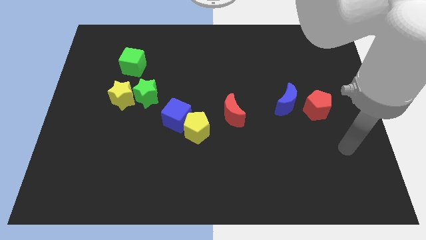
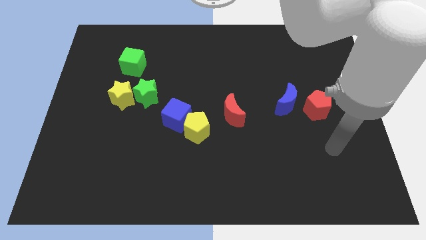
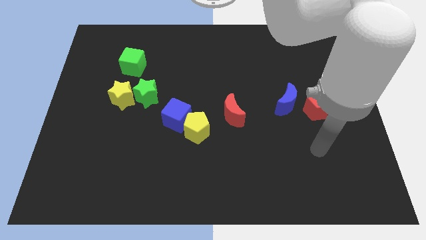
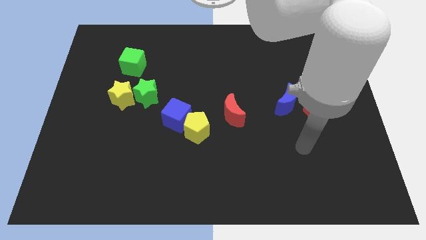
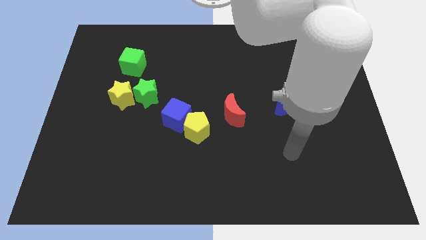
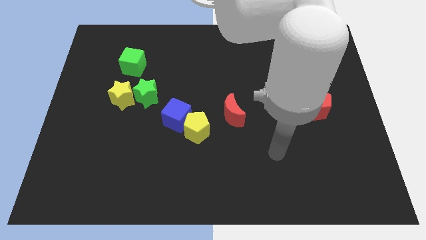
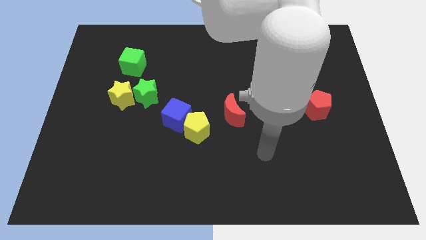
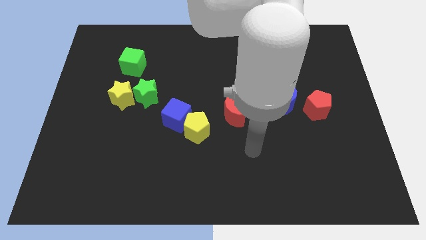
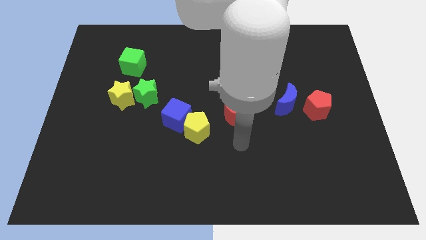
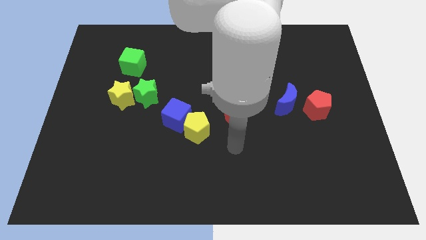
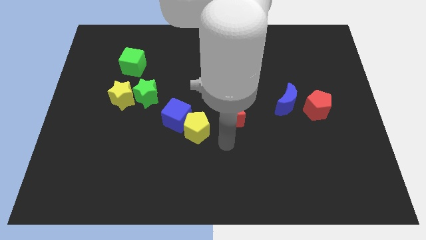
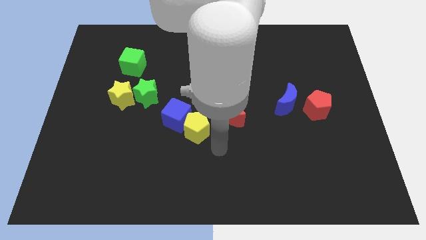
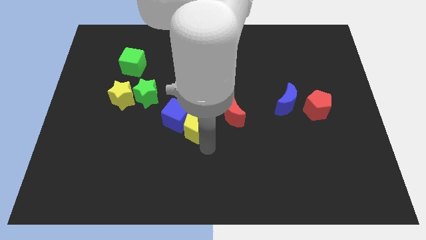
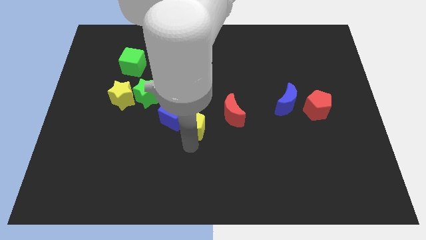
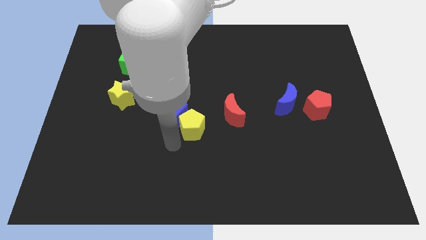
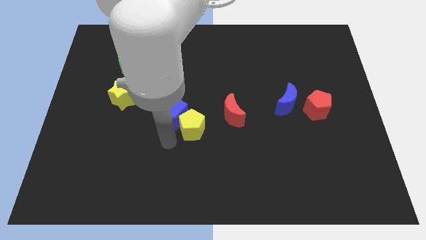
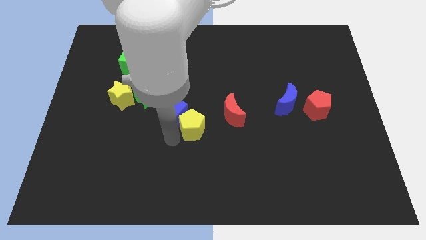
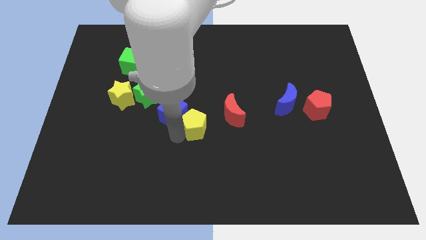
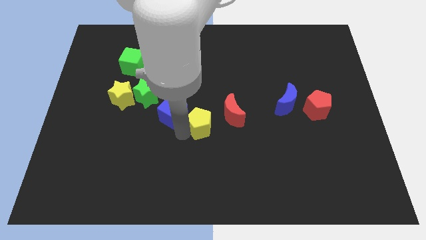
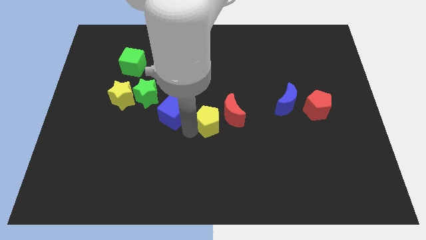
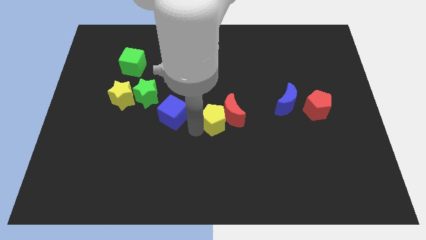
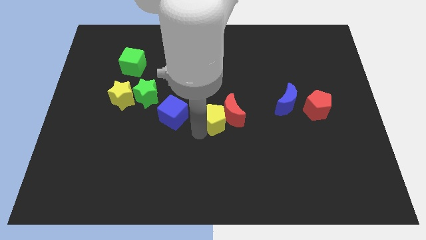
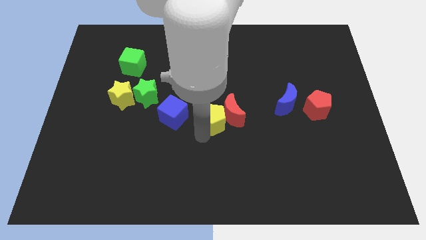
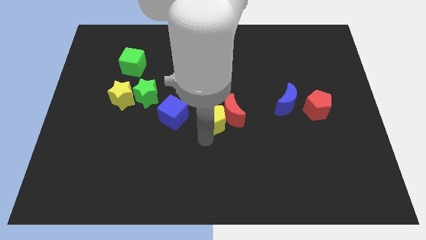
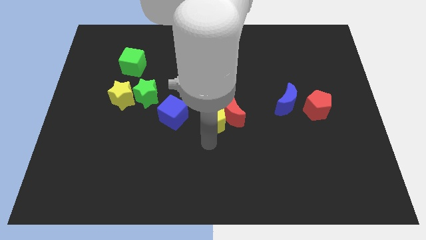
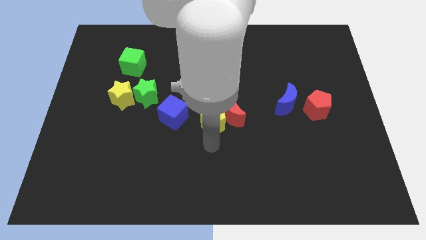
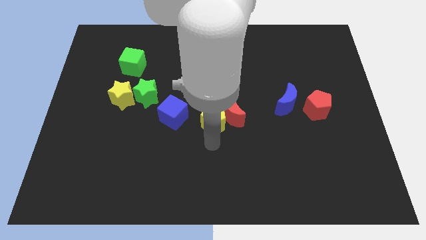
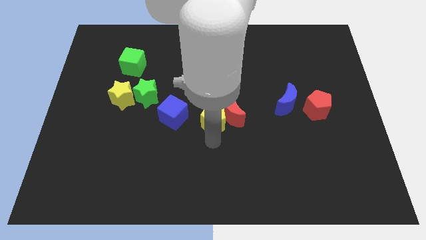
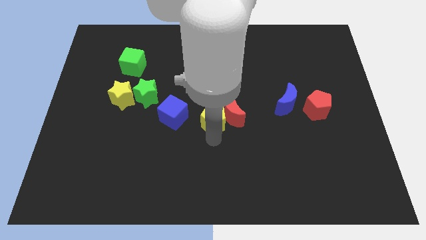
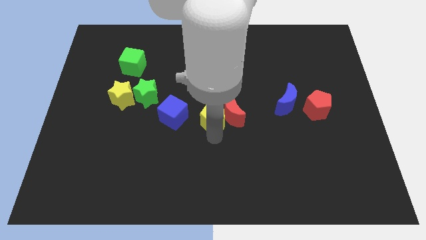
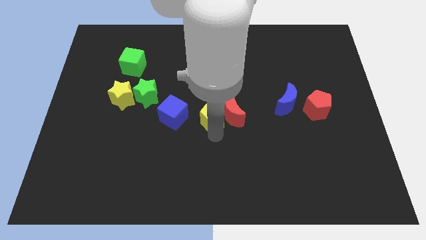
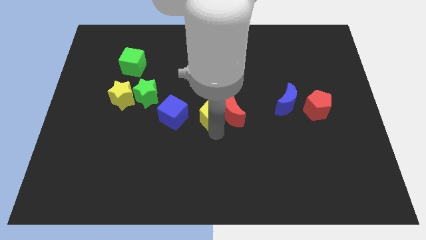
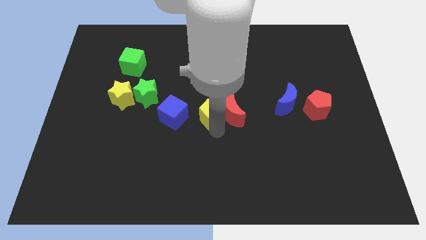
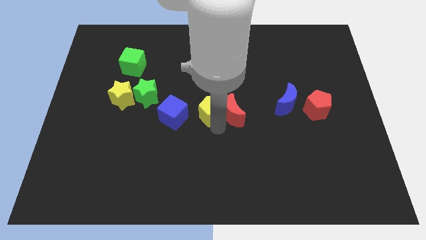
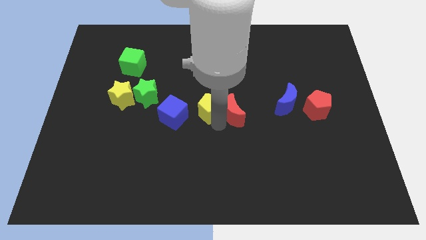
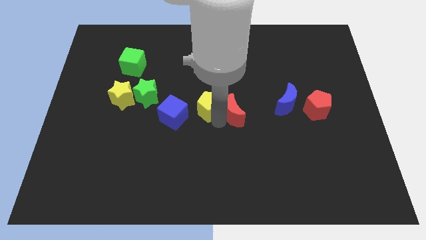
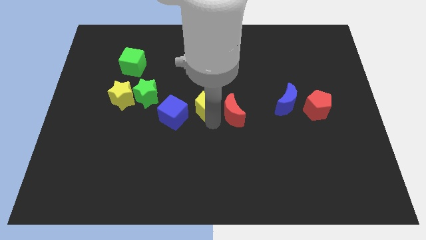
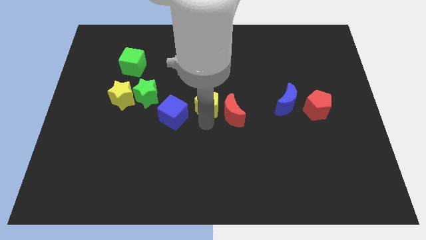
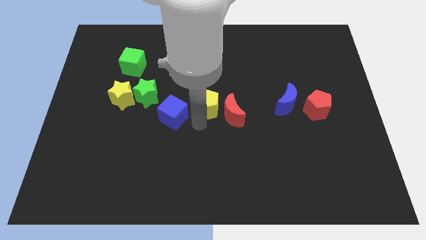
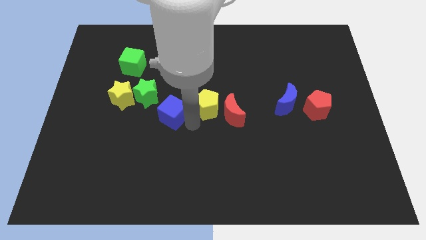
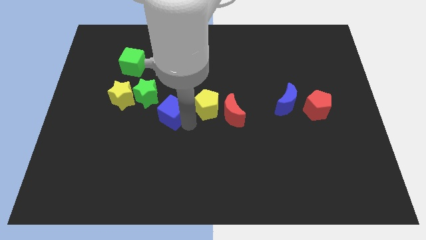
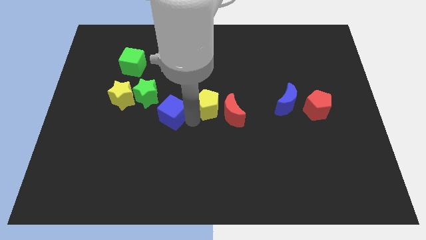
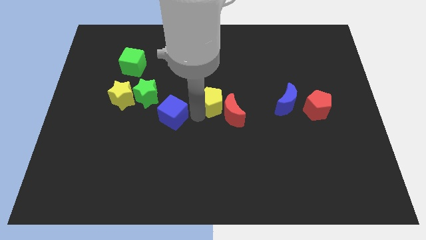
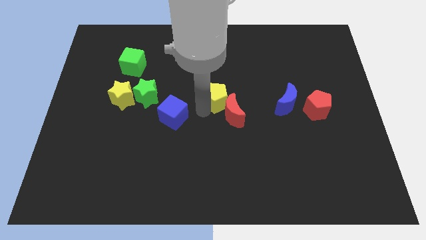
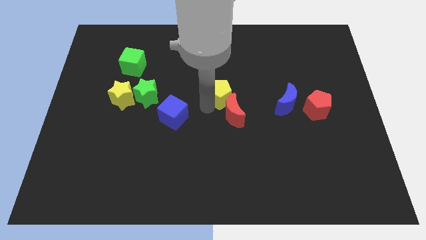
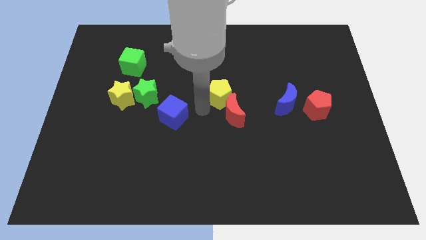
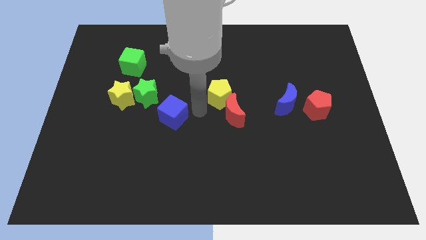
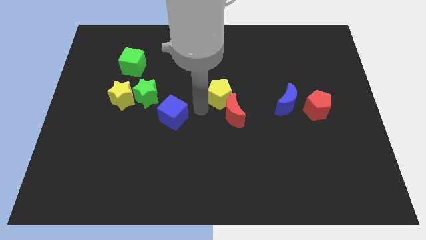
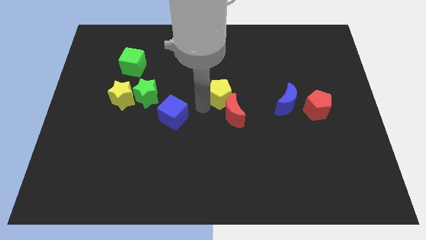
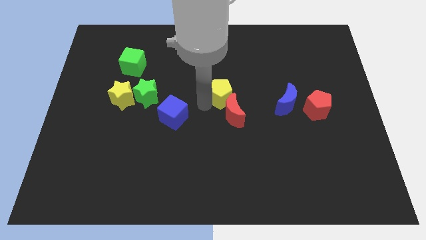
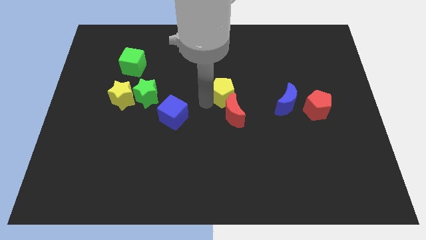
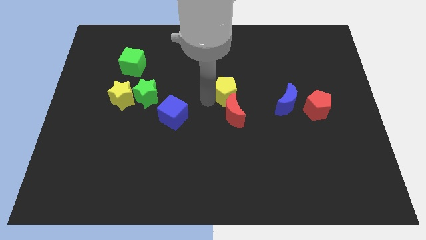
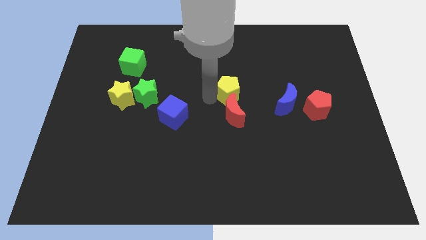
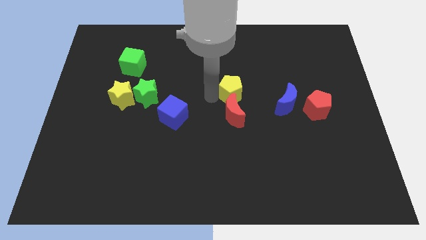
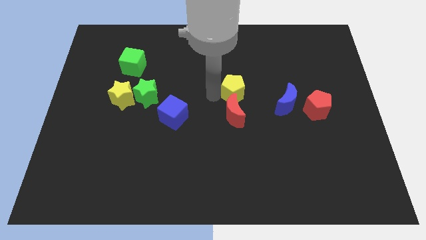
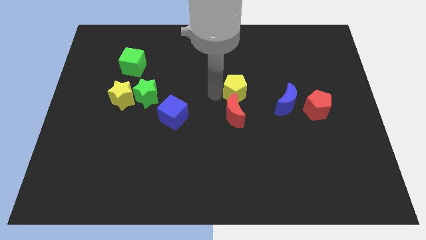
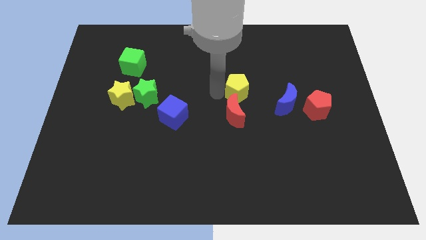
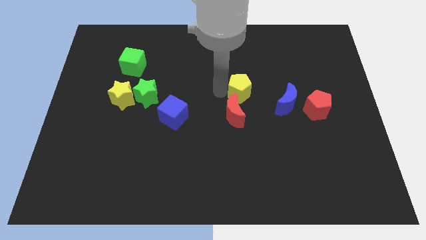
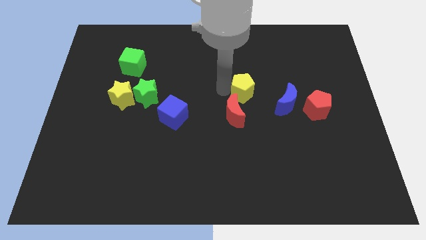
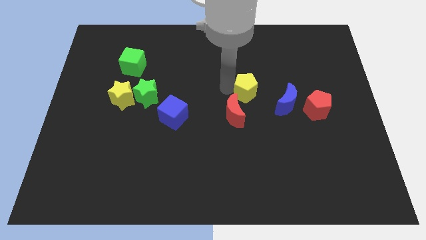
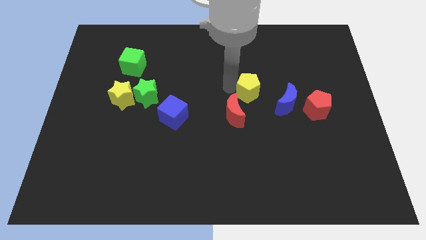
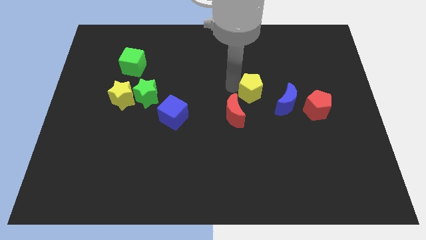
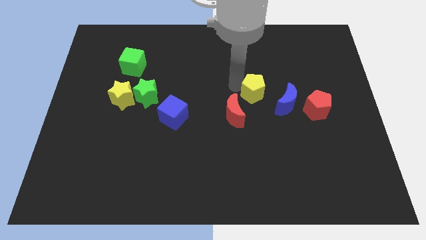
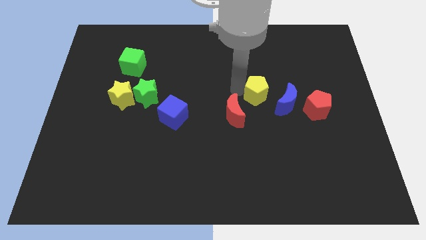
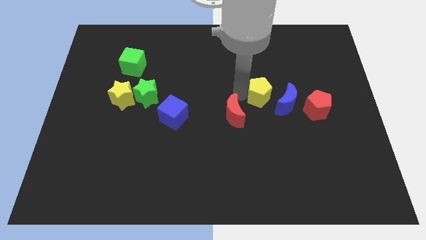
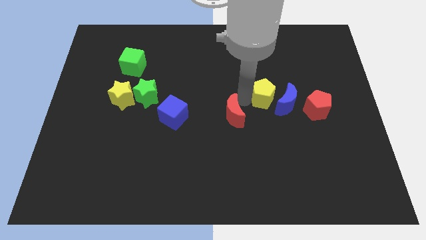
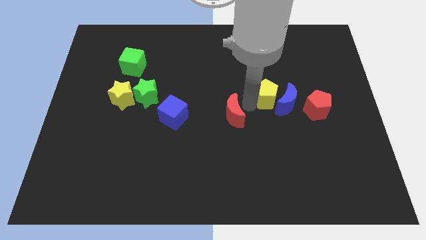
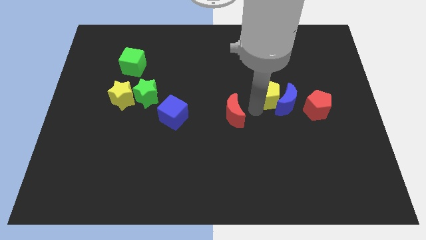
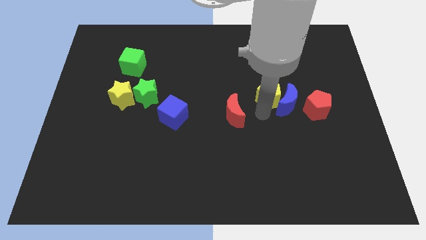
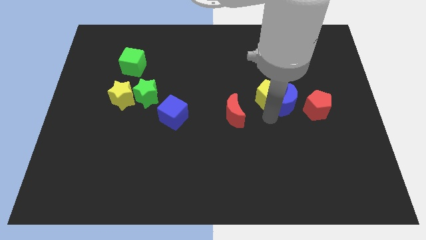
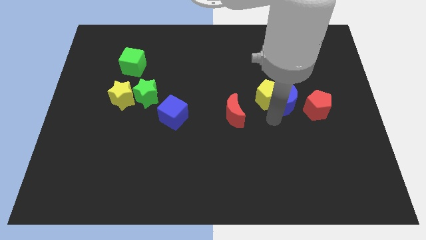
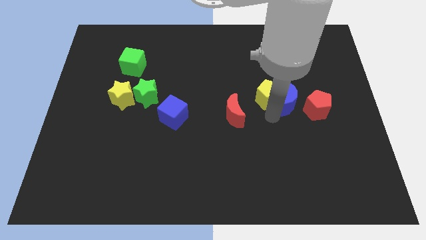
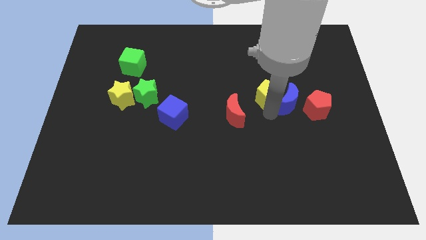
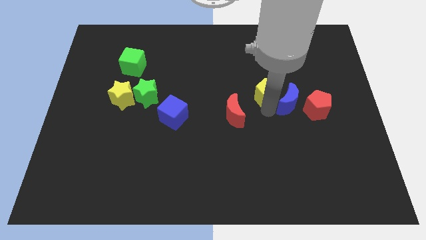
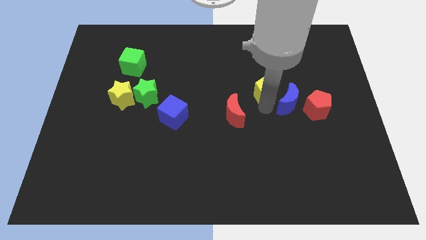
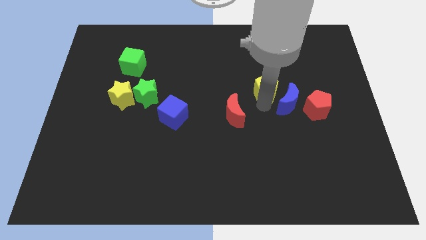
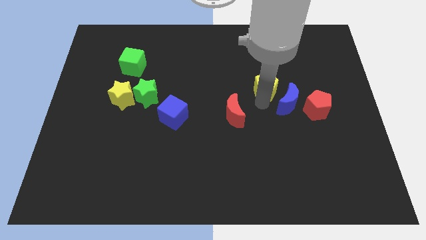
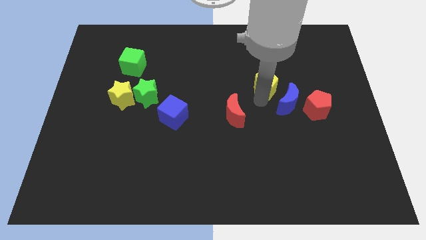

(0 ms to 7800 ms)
move the yellow pentagon upwards and right diagonally

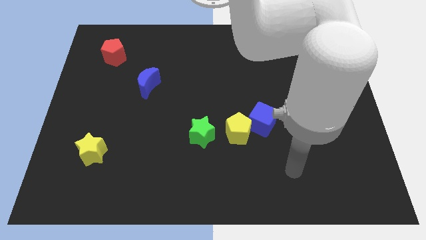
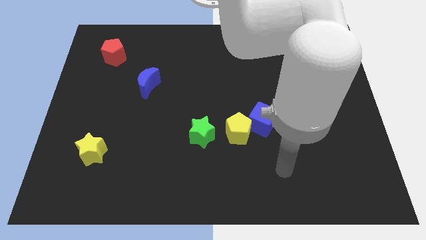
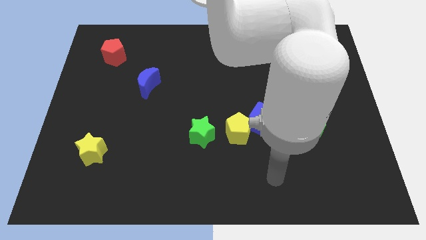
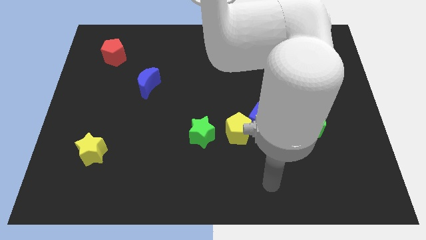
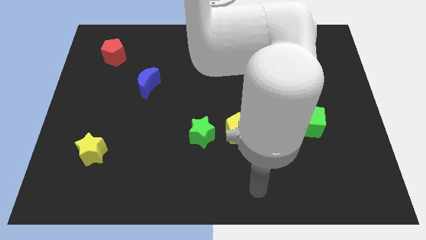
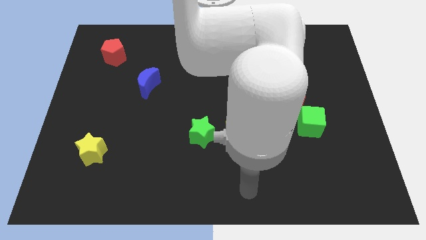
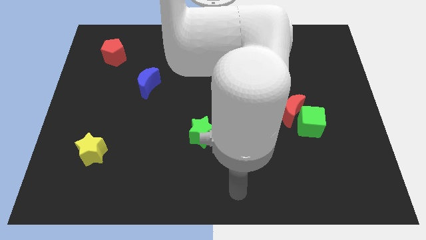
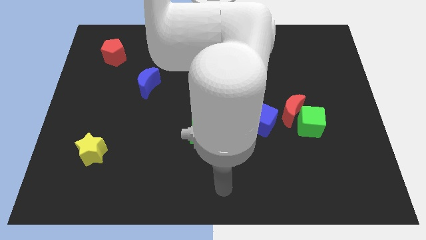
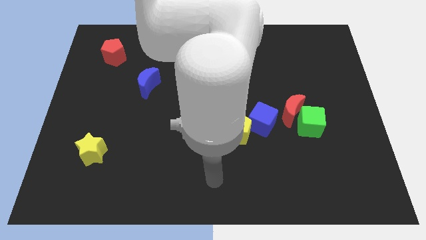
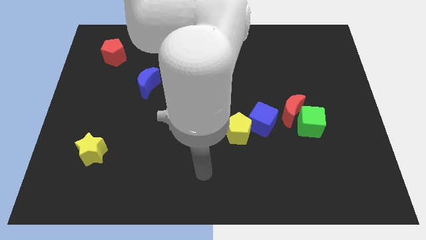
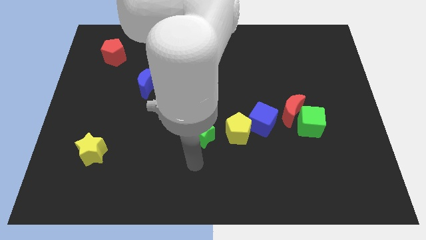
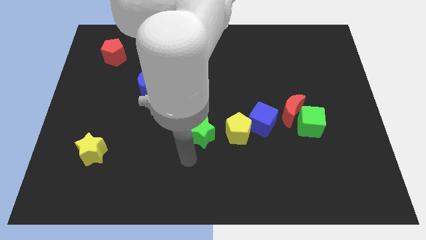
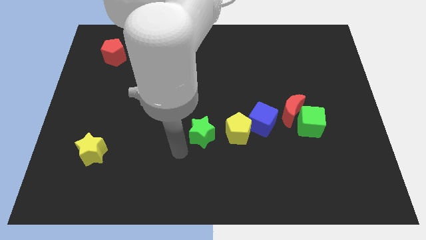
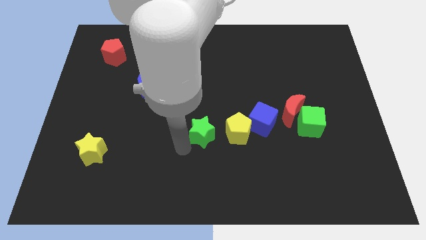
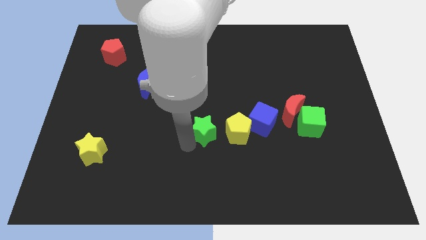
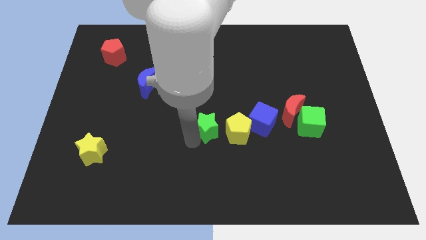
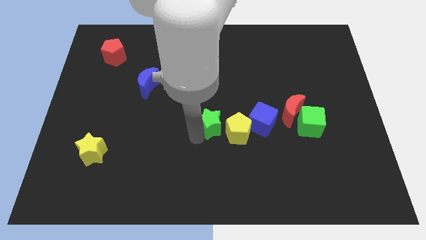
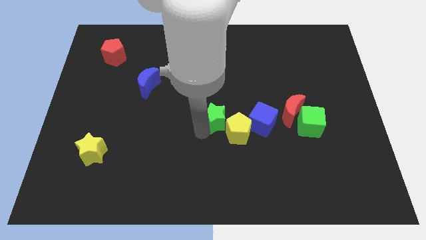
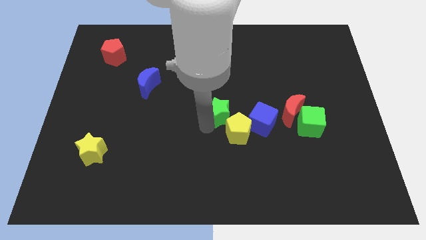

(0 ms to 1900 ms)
slightly move the green star upwards and right
